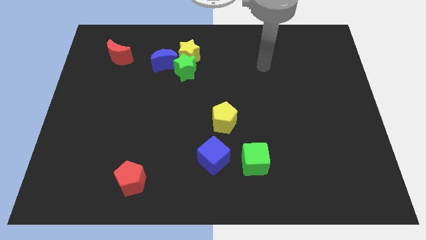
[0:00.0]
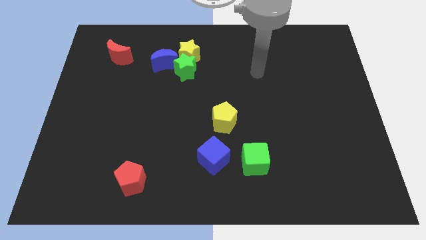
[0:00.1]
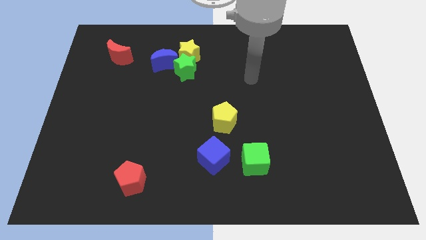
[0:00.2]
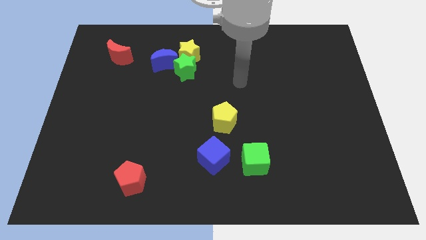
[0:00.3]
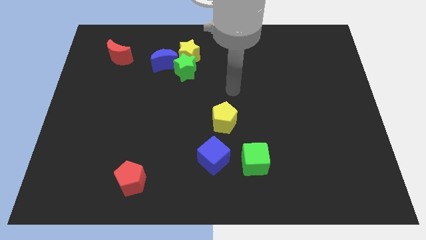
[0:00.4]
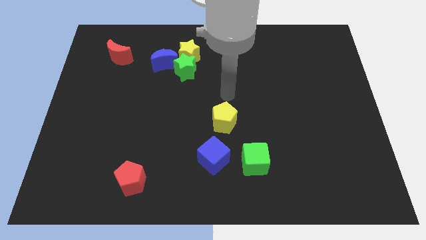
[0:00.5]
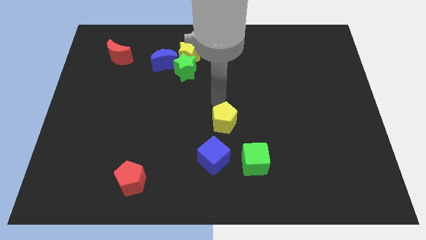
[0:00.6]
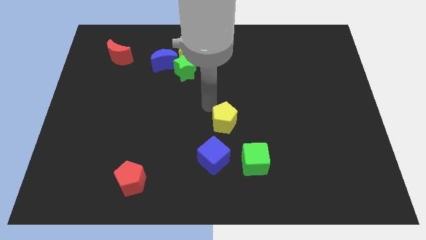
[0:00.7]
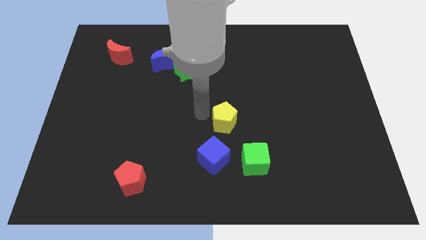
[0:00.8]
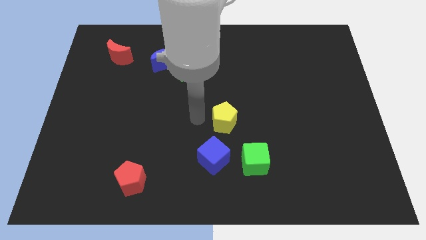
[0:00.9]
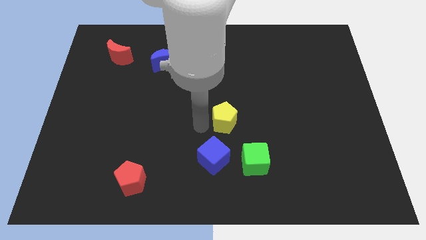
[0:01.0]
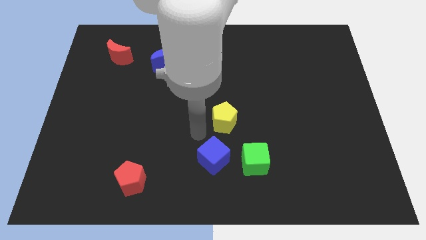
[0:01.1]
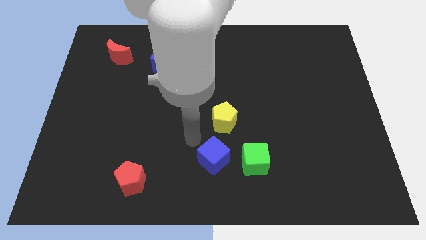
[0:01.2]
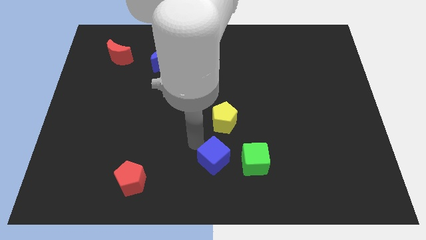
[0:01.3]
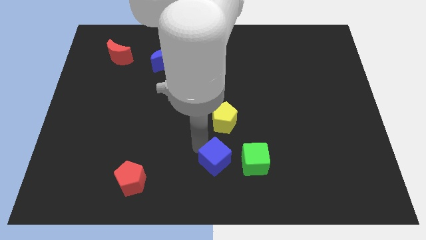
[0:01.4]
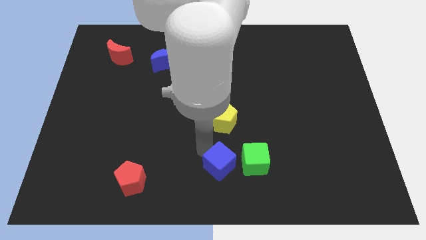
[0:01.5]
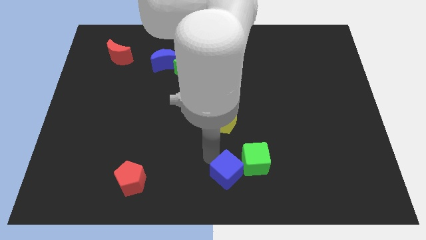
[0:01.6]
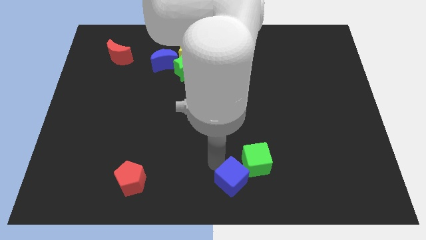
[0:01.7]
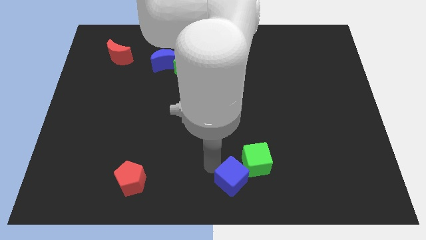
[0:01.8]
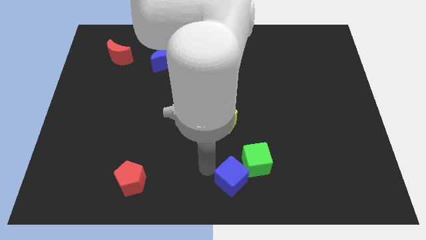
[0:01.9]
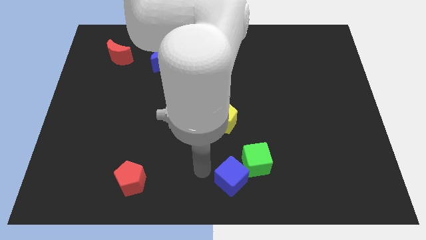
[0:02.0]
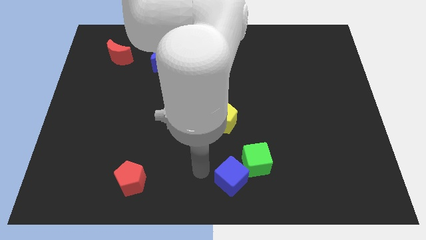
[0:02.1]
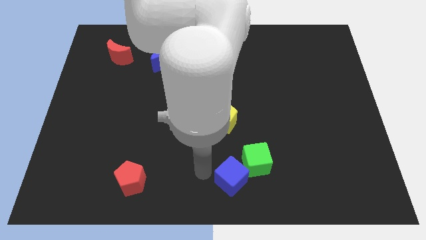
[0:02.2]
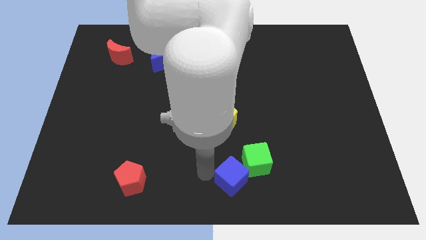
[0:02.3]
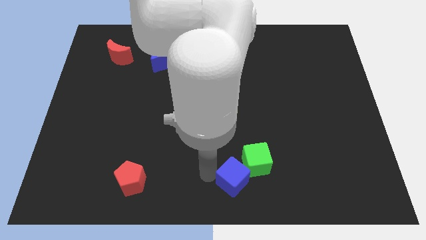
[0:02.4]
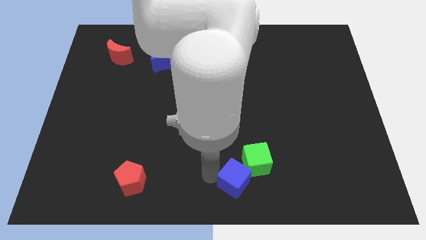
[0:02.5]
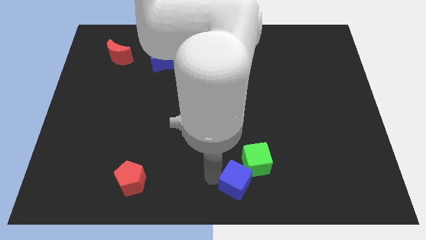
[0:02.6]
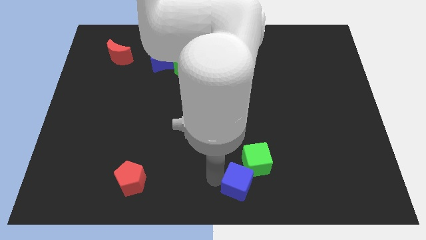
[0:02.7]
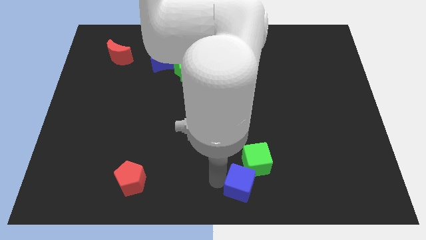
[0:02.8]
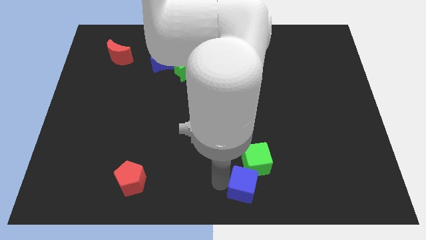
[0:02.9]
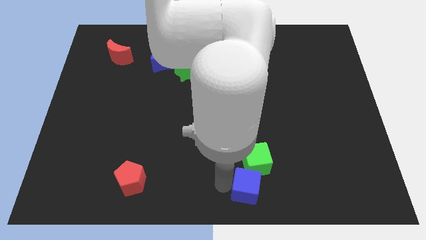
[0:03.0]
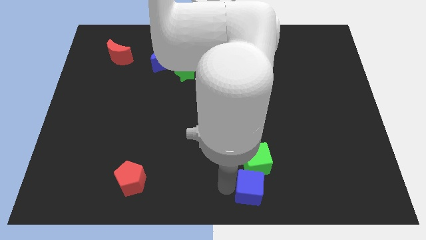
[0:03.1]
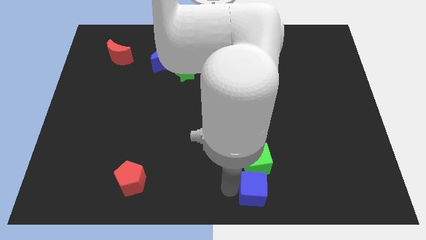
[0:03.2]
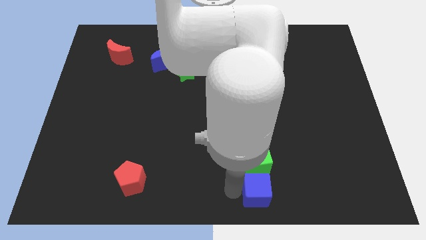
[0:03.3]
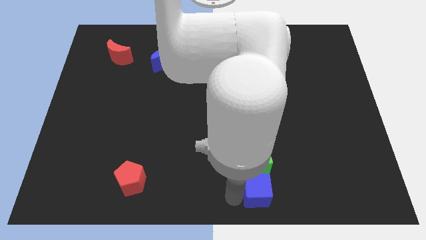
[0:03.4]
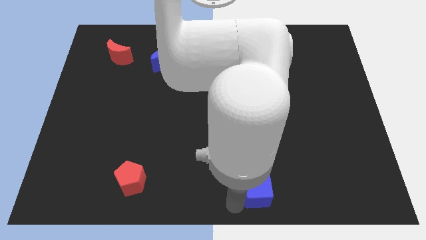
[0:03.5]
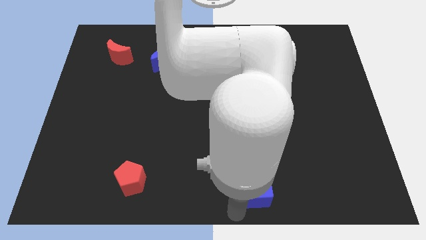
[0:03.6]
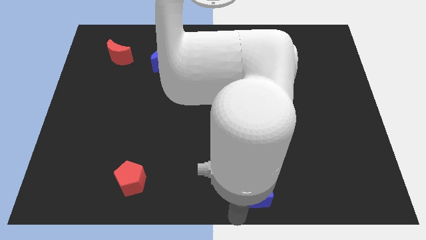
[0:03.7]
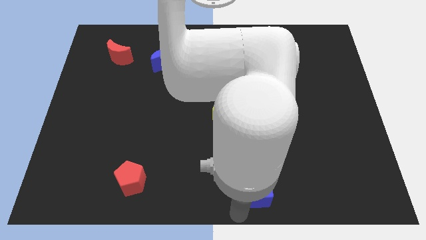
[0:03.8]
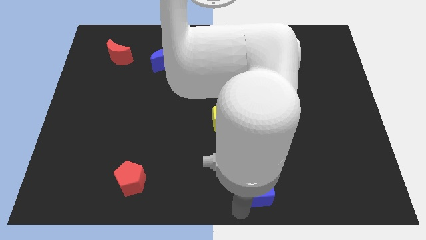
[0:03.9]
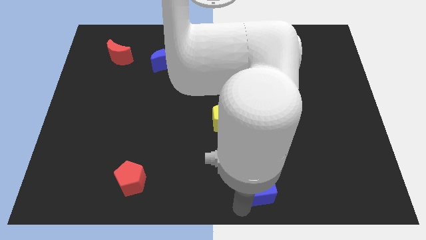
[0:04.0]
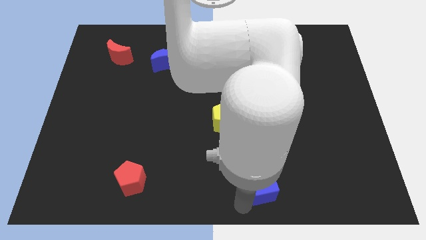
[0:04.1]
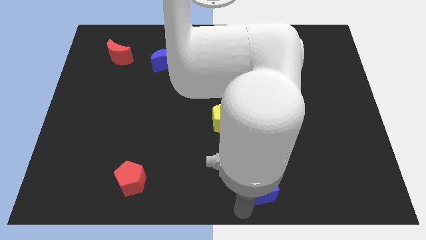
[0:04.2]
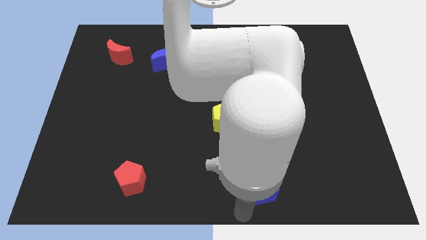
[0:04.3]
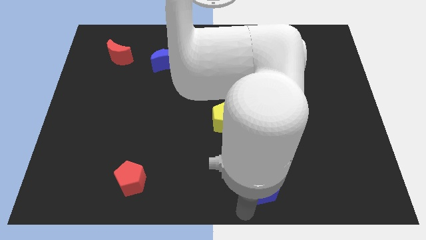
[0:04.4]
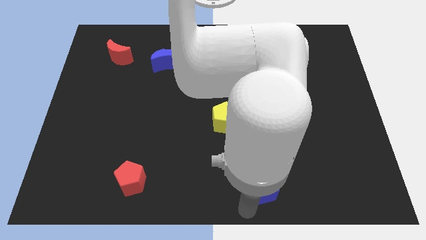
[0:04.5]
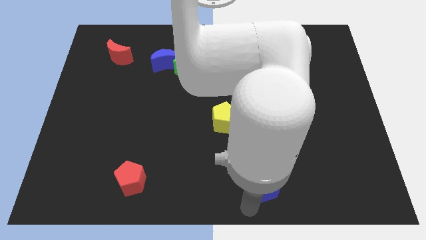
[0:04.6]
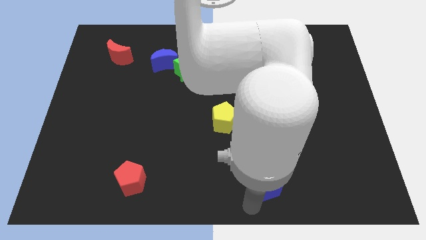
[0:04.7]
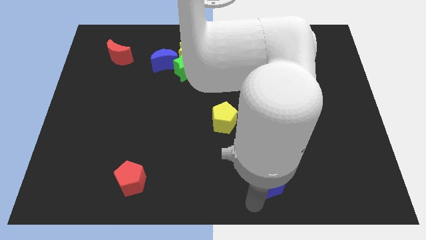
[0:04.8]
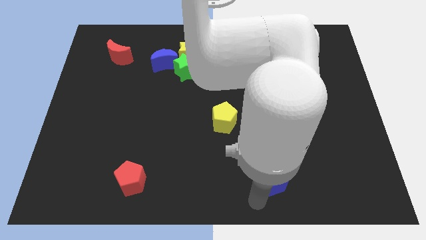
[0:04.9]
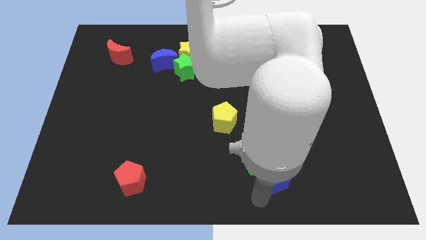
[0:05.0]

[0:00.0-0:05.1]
slide the blue cube to the right side of the green cube
